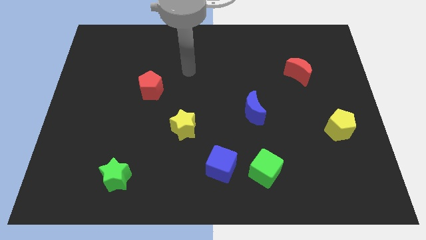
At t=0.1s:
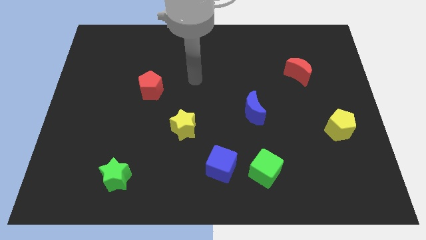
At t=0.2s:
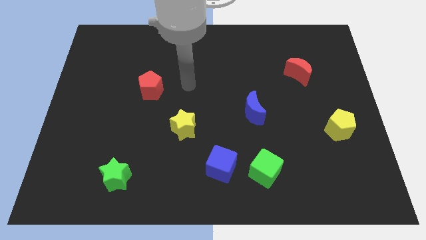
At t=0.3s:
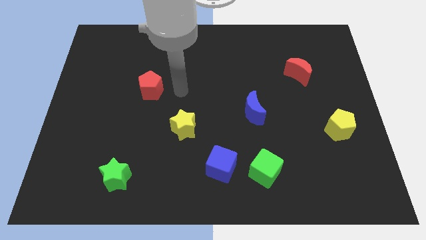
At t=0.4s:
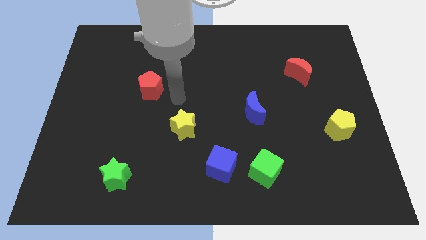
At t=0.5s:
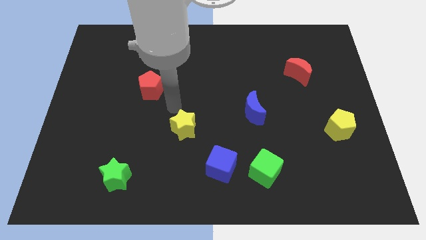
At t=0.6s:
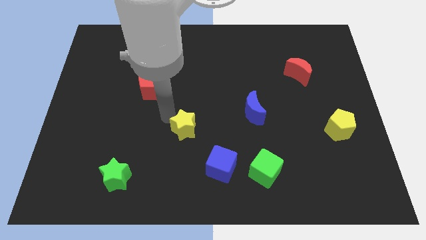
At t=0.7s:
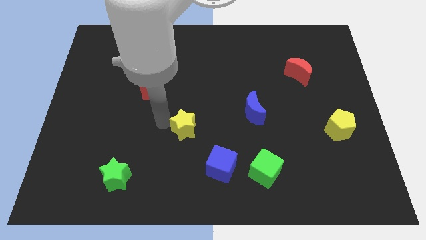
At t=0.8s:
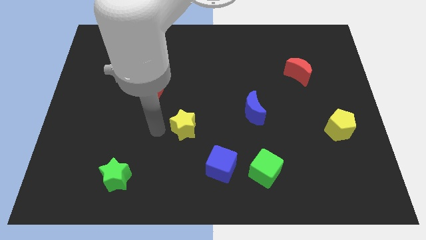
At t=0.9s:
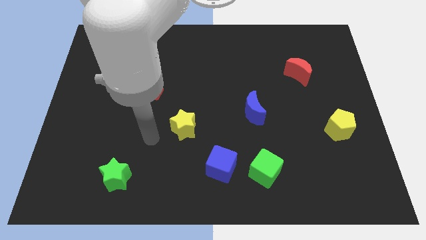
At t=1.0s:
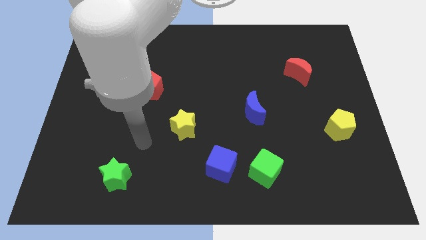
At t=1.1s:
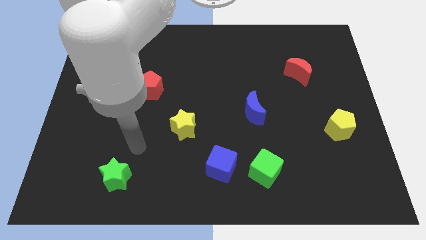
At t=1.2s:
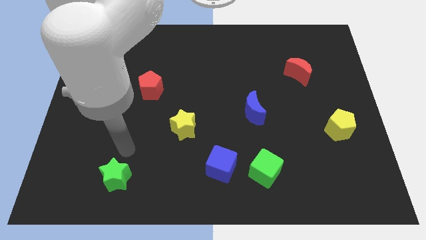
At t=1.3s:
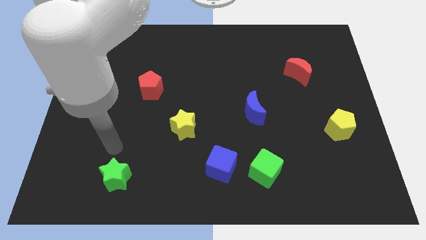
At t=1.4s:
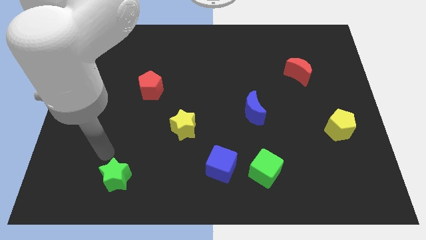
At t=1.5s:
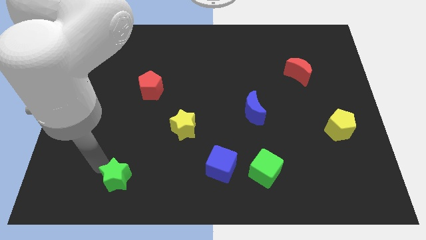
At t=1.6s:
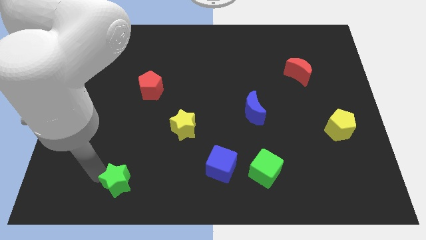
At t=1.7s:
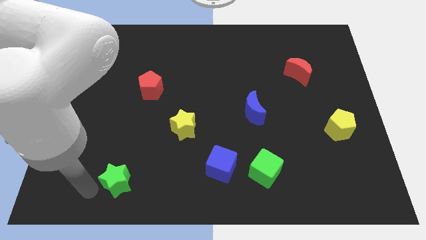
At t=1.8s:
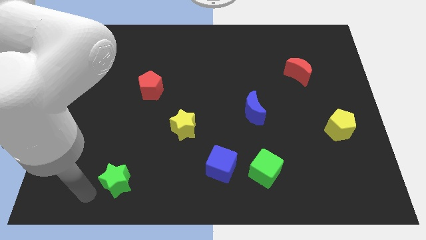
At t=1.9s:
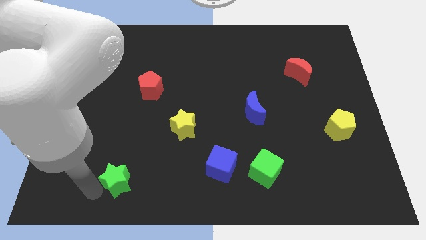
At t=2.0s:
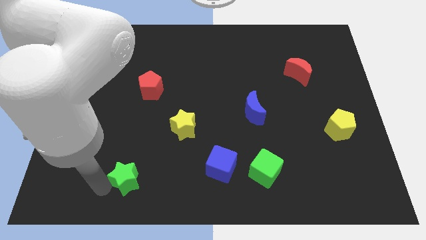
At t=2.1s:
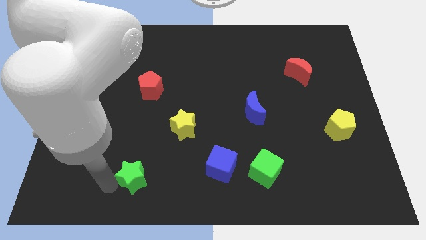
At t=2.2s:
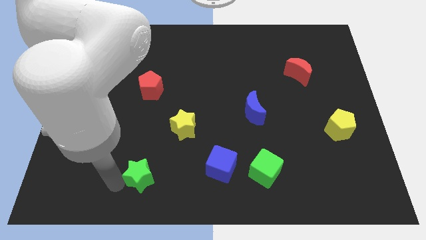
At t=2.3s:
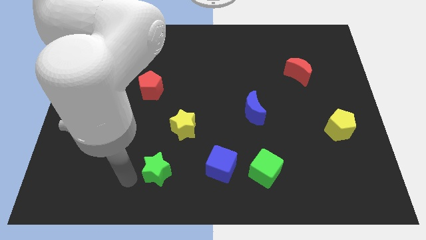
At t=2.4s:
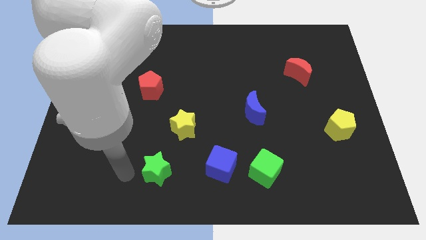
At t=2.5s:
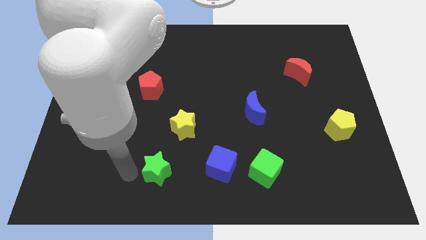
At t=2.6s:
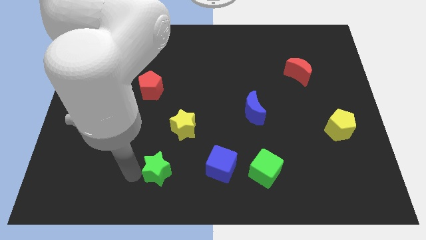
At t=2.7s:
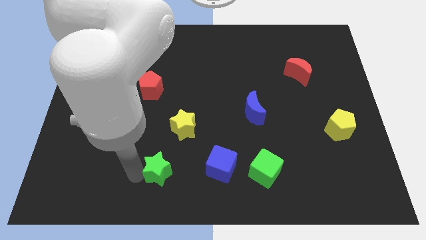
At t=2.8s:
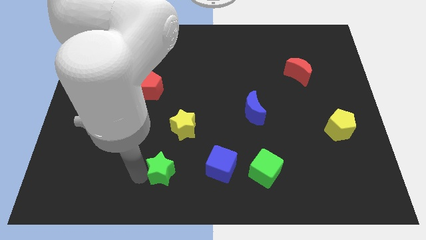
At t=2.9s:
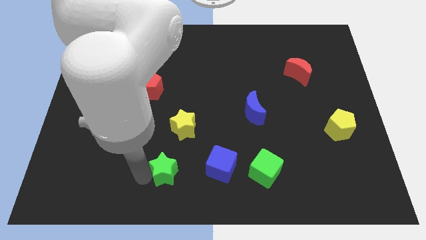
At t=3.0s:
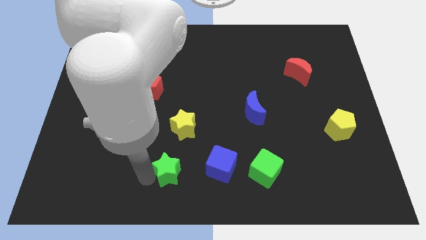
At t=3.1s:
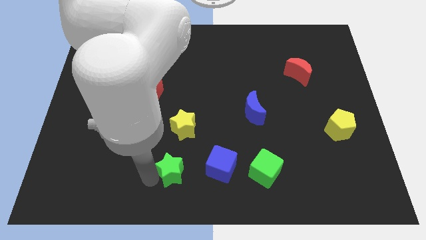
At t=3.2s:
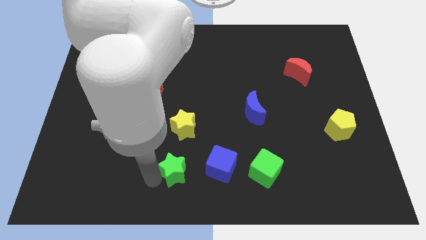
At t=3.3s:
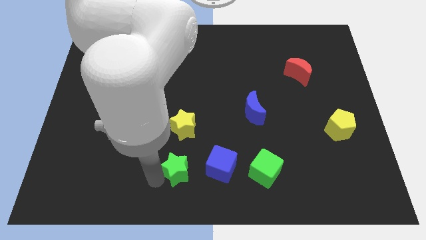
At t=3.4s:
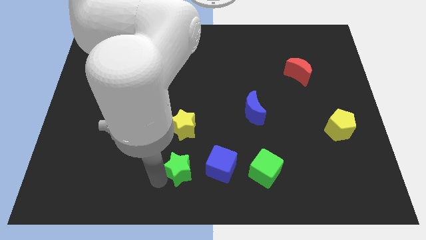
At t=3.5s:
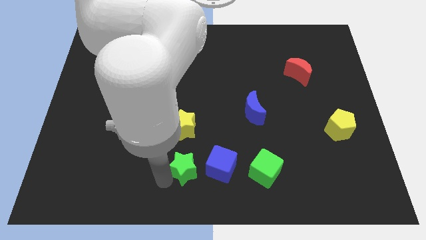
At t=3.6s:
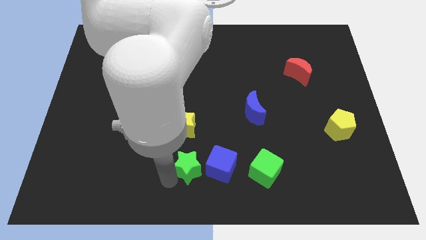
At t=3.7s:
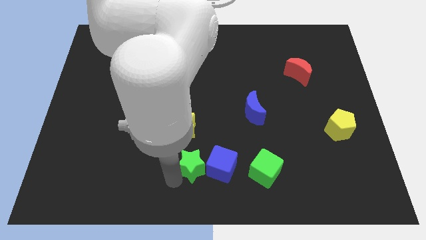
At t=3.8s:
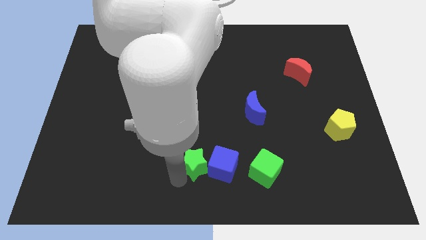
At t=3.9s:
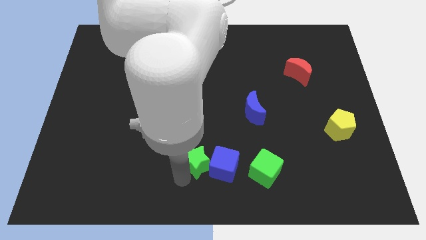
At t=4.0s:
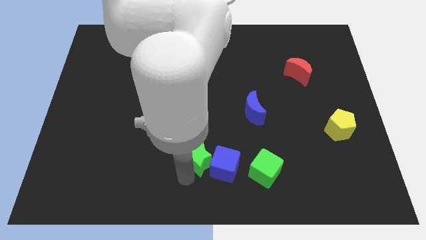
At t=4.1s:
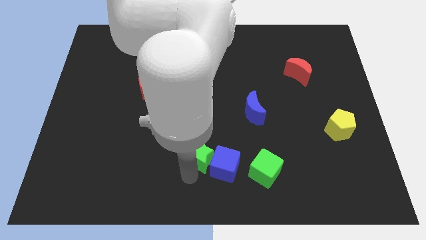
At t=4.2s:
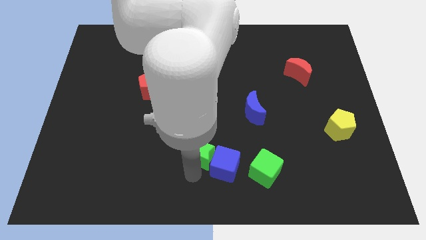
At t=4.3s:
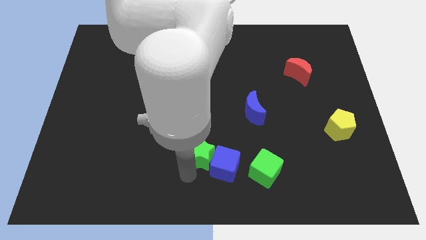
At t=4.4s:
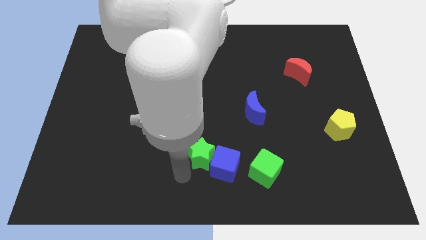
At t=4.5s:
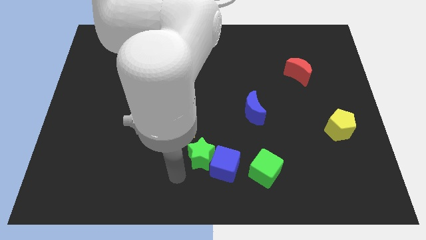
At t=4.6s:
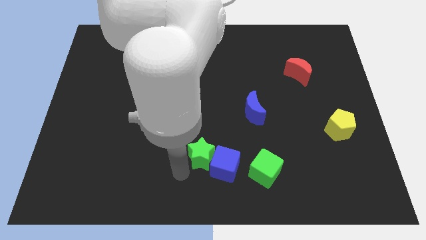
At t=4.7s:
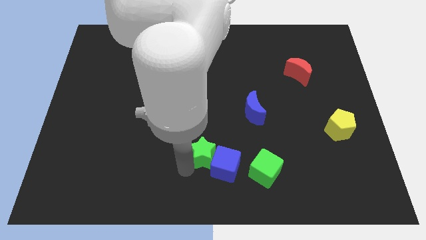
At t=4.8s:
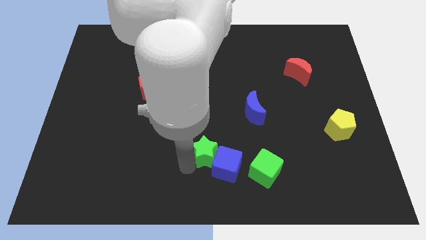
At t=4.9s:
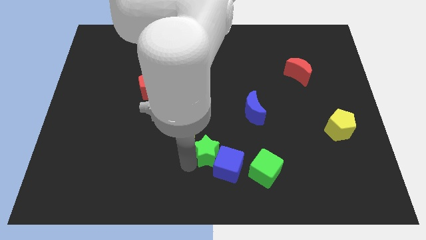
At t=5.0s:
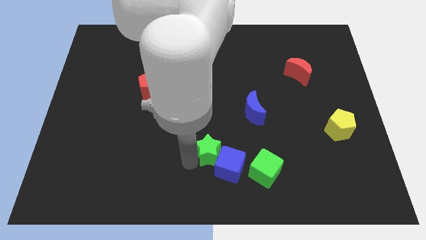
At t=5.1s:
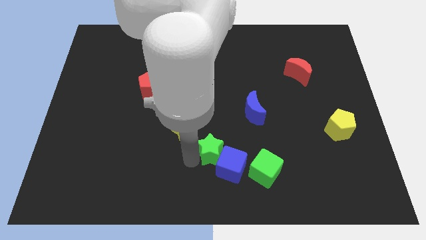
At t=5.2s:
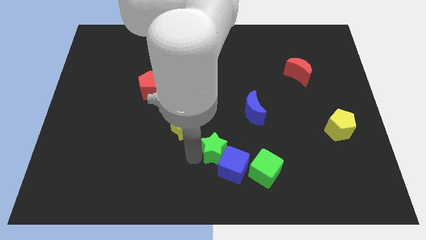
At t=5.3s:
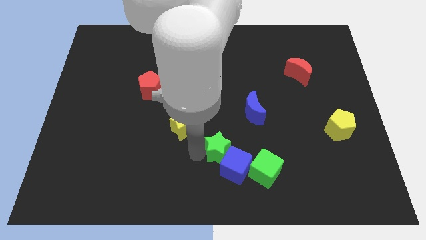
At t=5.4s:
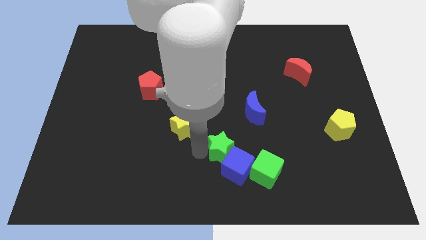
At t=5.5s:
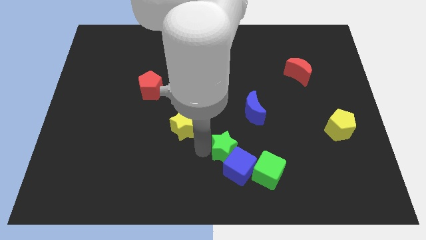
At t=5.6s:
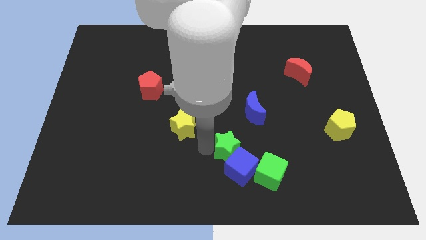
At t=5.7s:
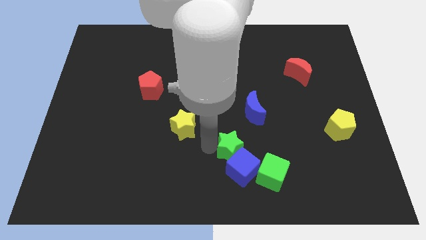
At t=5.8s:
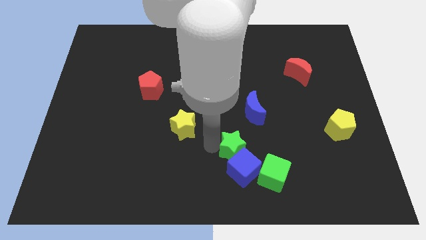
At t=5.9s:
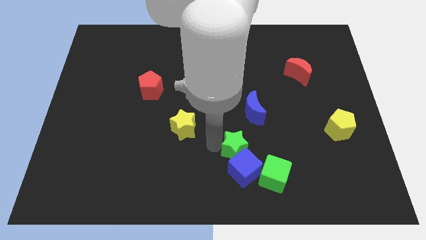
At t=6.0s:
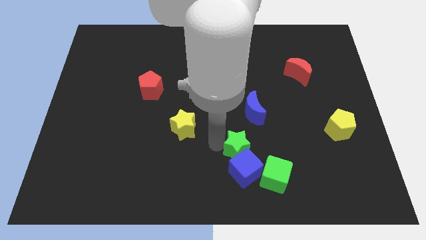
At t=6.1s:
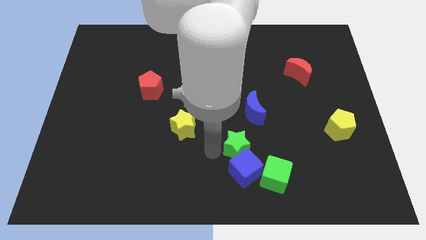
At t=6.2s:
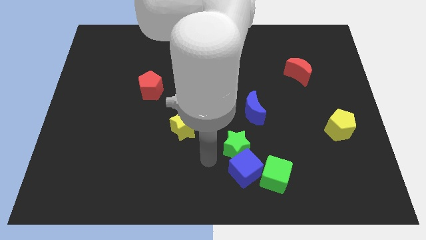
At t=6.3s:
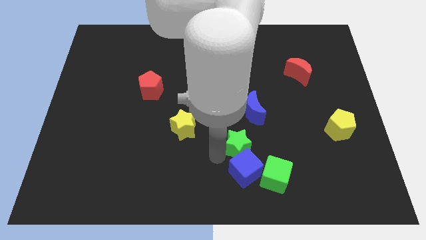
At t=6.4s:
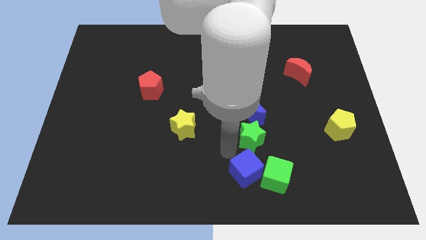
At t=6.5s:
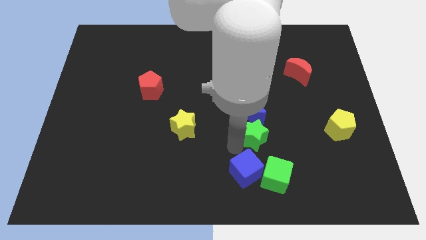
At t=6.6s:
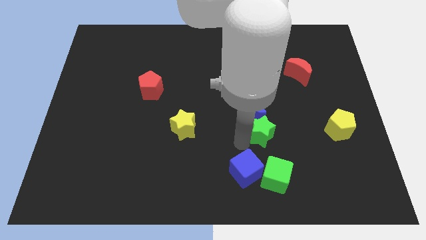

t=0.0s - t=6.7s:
put the green star to the bottom right of the blue moon

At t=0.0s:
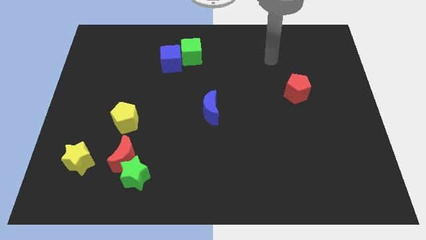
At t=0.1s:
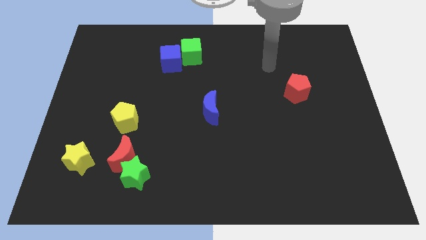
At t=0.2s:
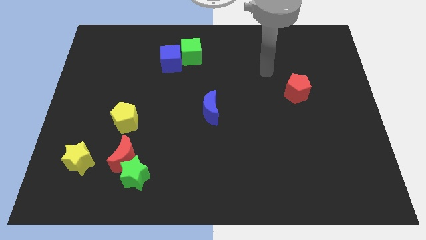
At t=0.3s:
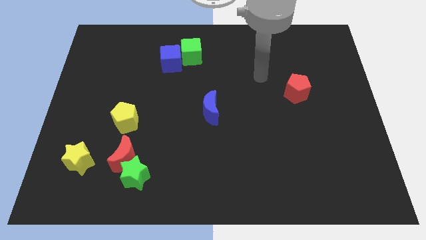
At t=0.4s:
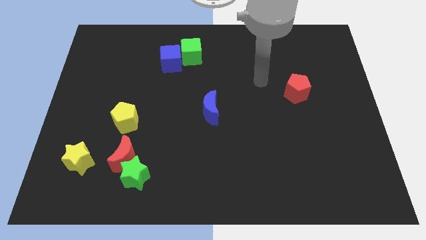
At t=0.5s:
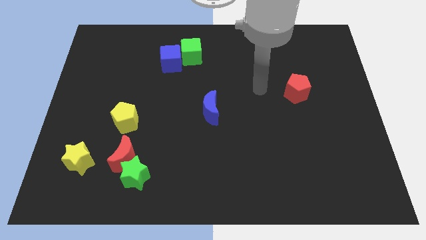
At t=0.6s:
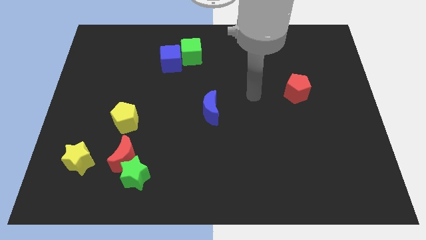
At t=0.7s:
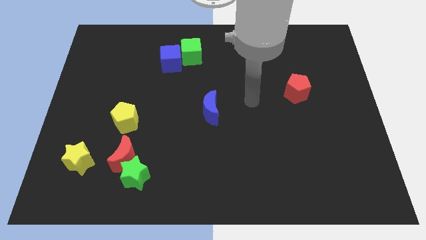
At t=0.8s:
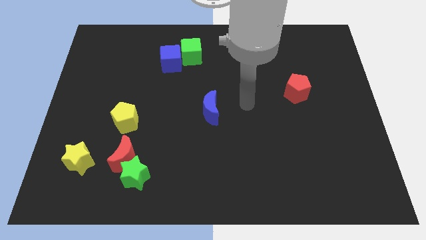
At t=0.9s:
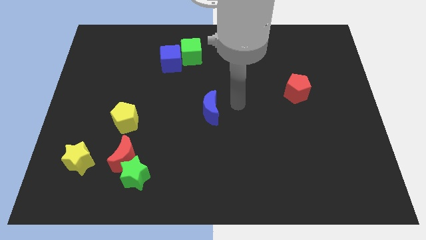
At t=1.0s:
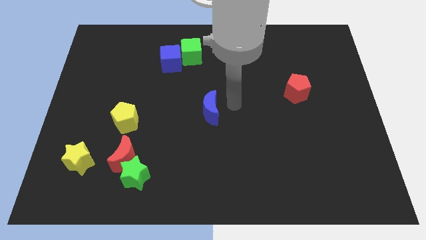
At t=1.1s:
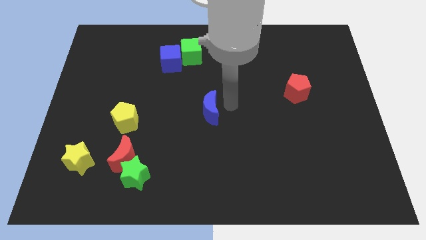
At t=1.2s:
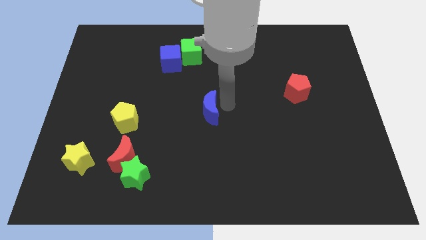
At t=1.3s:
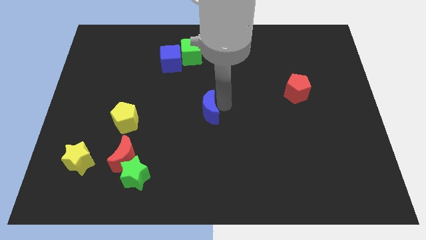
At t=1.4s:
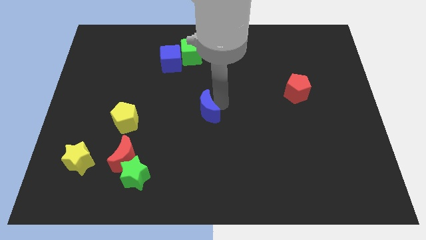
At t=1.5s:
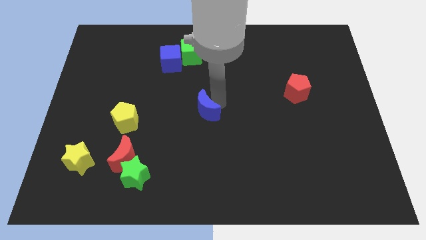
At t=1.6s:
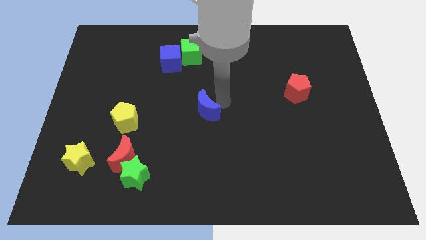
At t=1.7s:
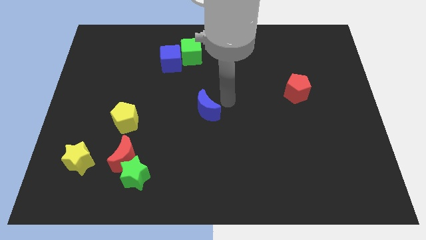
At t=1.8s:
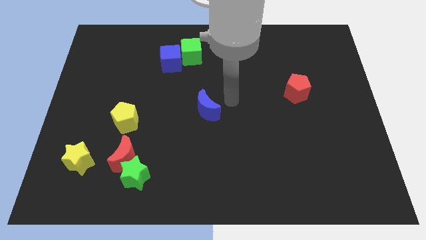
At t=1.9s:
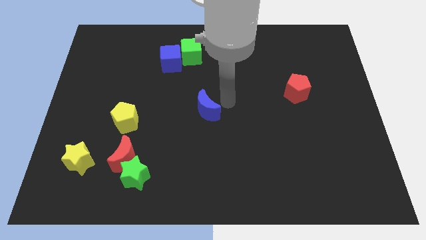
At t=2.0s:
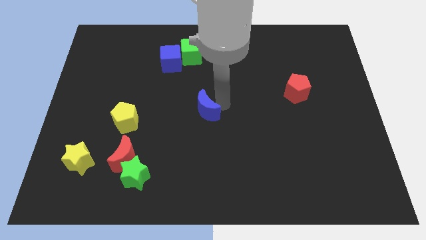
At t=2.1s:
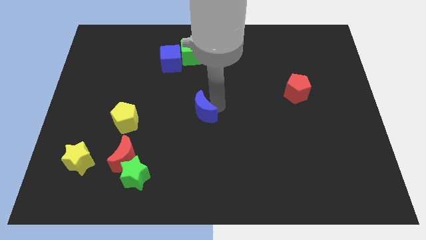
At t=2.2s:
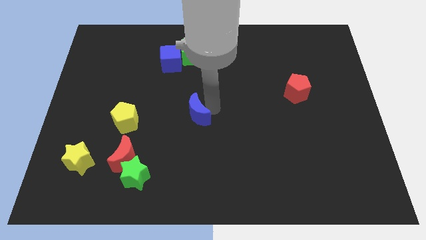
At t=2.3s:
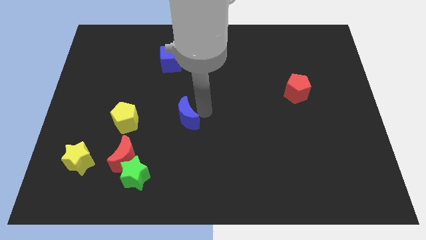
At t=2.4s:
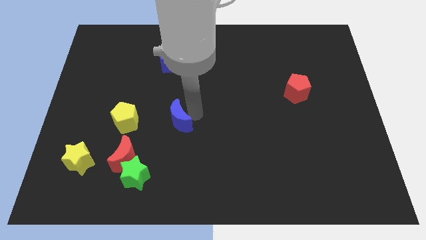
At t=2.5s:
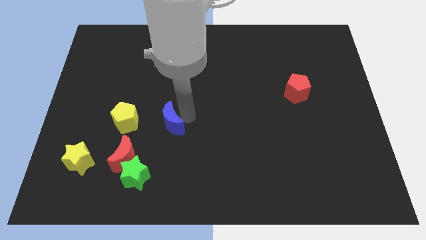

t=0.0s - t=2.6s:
move the blue moon to the top right side of the red moon
